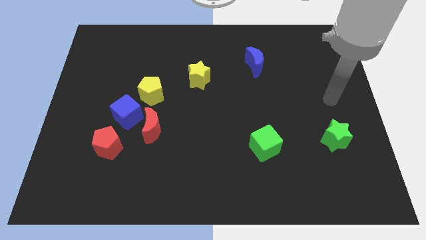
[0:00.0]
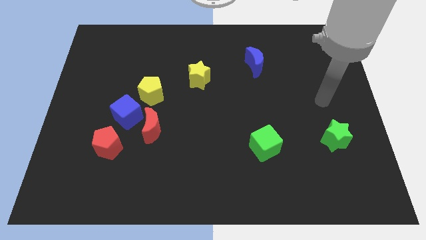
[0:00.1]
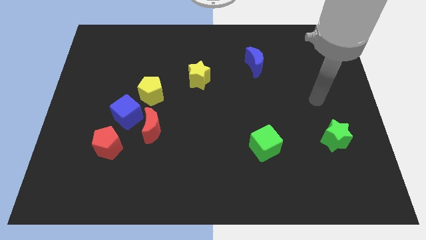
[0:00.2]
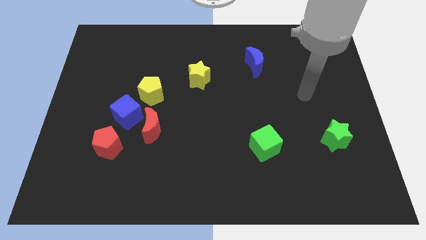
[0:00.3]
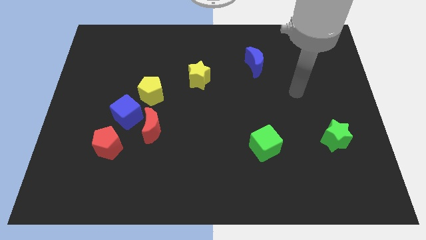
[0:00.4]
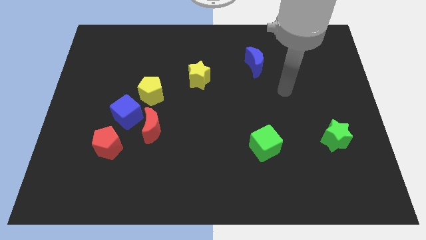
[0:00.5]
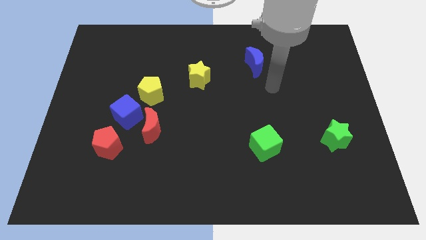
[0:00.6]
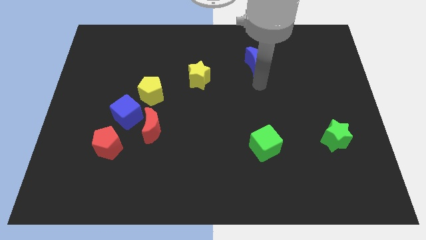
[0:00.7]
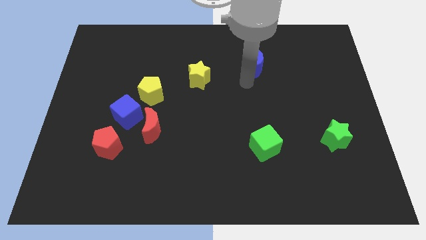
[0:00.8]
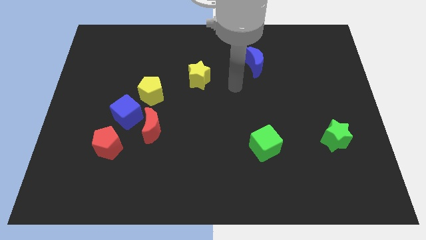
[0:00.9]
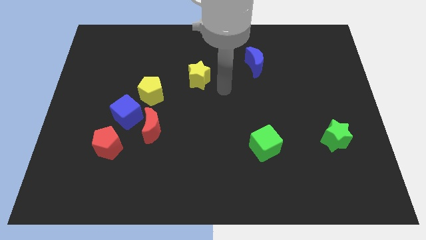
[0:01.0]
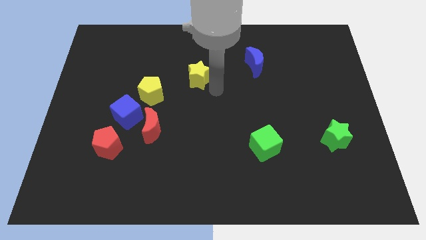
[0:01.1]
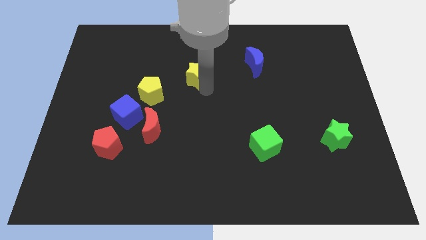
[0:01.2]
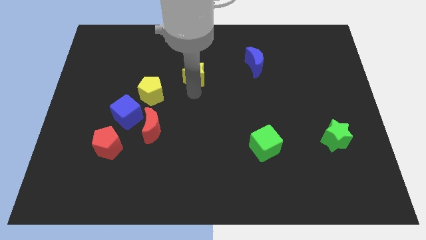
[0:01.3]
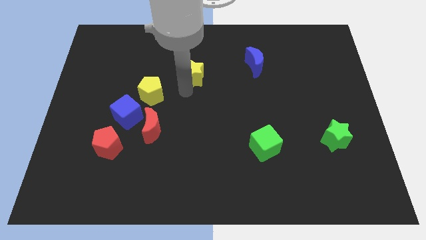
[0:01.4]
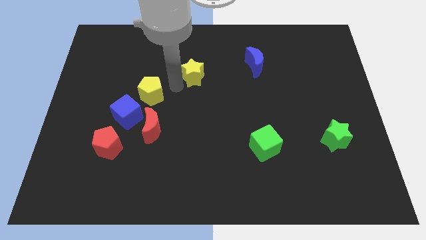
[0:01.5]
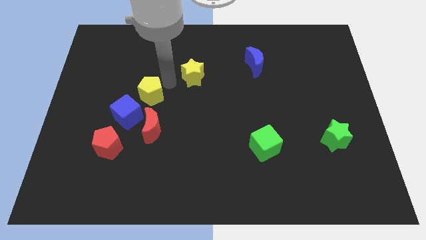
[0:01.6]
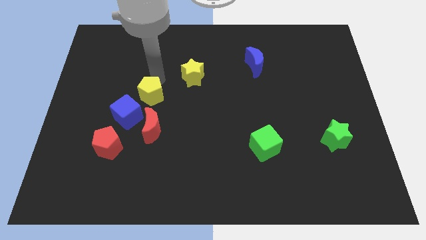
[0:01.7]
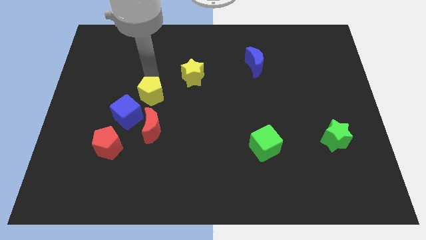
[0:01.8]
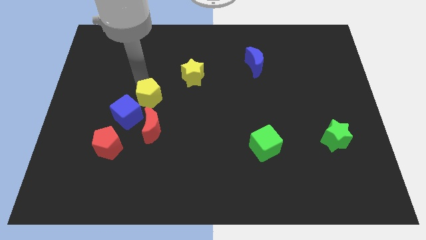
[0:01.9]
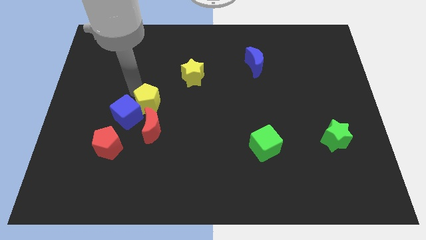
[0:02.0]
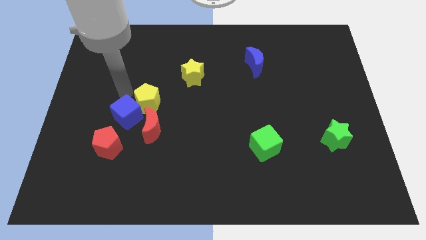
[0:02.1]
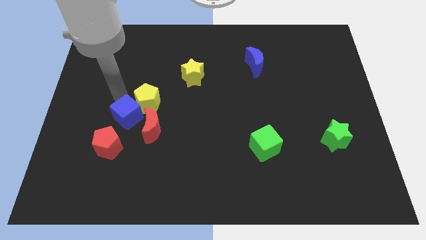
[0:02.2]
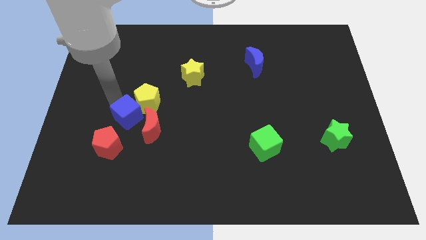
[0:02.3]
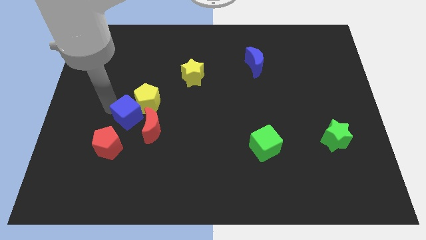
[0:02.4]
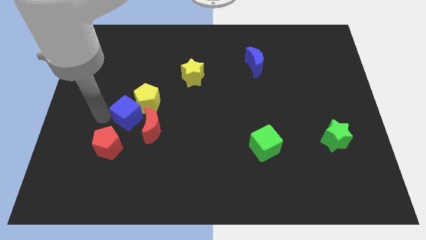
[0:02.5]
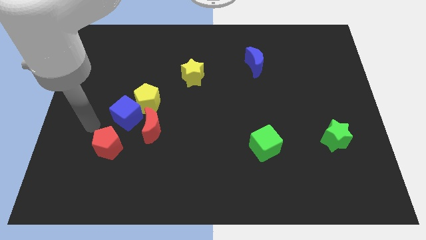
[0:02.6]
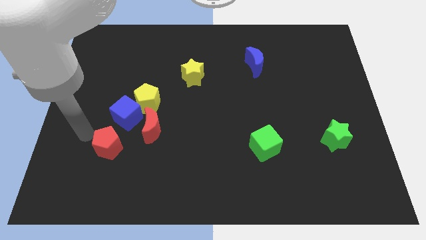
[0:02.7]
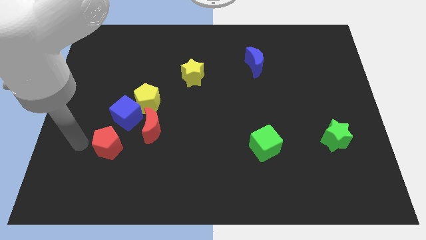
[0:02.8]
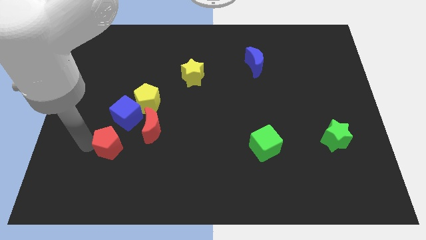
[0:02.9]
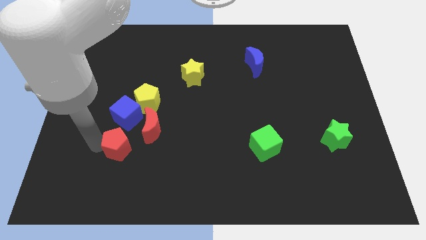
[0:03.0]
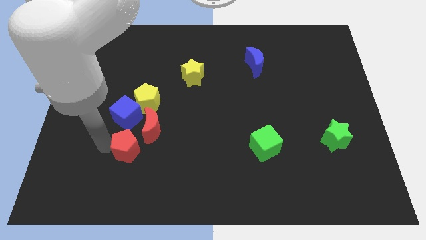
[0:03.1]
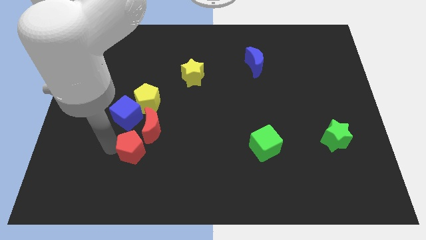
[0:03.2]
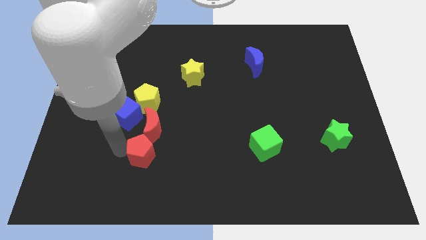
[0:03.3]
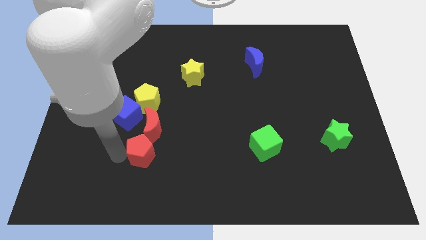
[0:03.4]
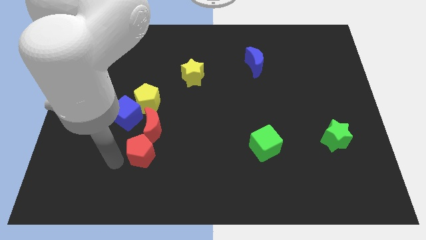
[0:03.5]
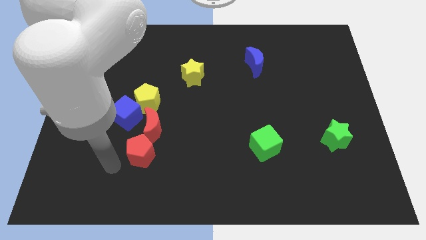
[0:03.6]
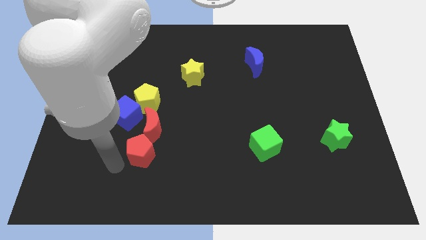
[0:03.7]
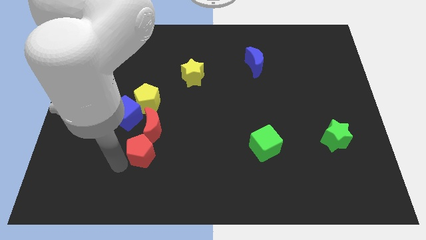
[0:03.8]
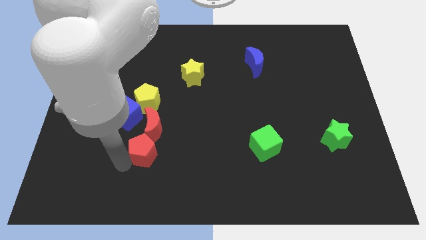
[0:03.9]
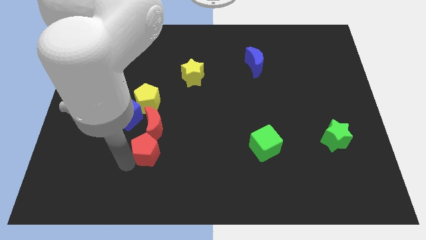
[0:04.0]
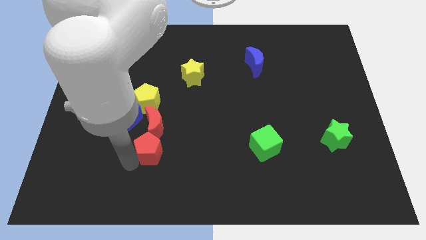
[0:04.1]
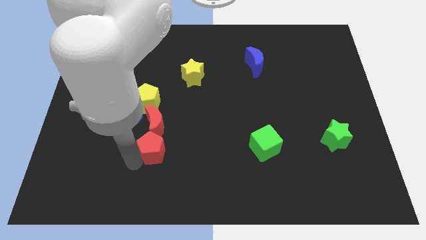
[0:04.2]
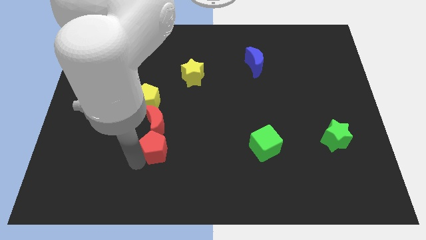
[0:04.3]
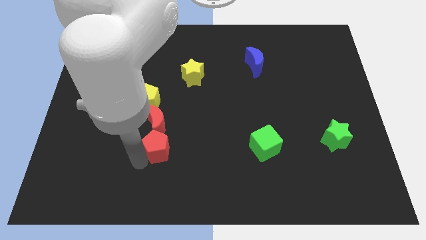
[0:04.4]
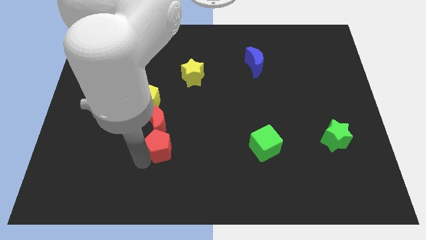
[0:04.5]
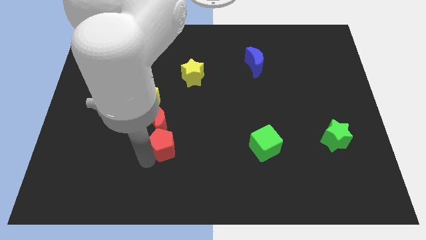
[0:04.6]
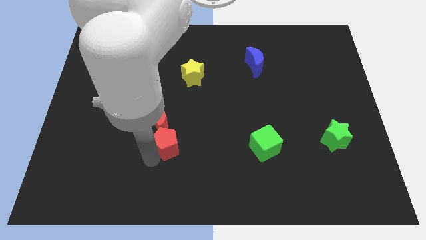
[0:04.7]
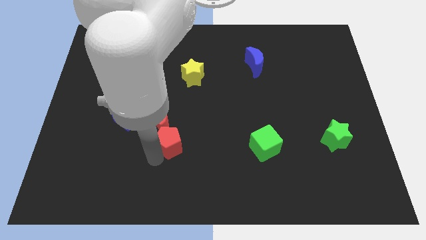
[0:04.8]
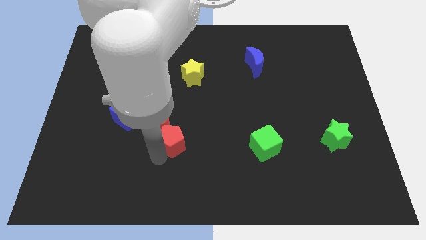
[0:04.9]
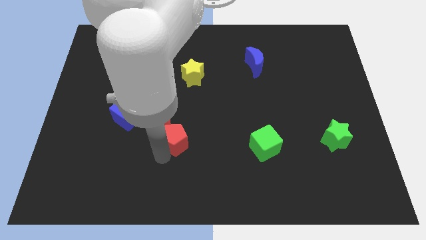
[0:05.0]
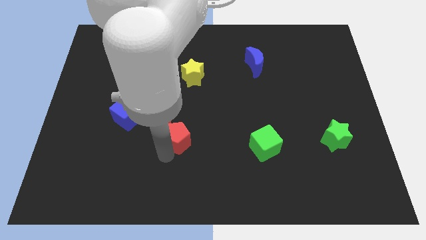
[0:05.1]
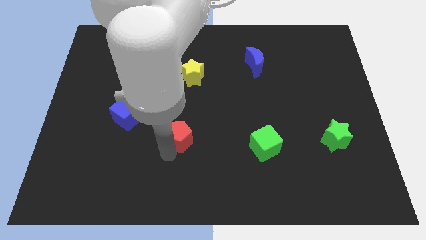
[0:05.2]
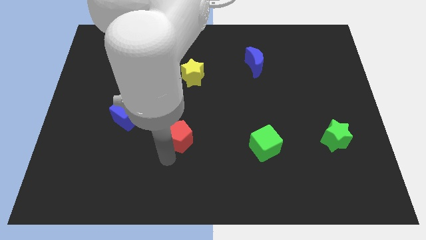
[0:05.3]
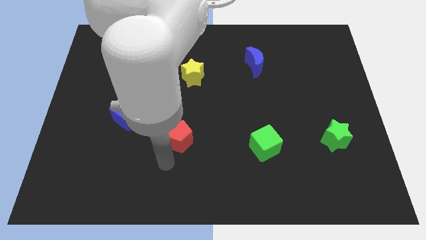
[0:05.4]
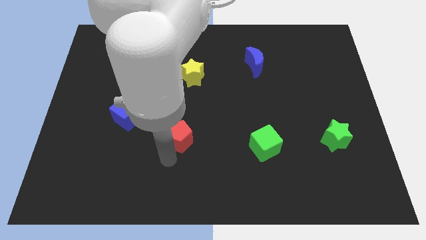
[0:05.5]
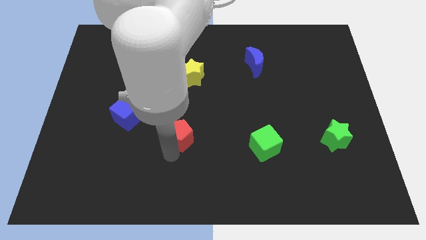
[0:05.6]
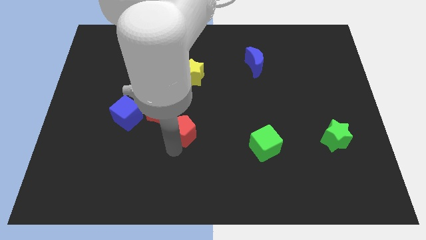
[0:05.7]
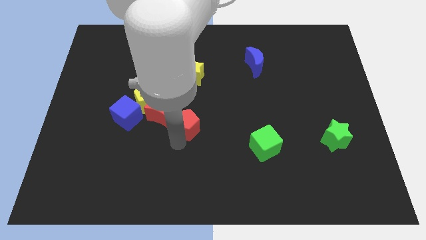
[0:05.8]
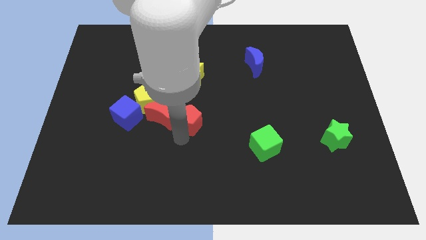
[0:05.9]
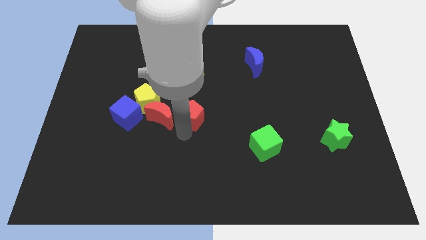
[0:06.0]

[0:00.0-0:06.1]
move the red pentagon just right of the yellow pentagon

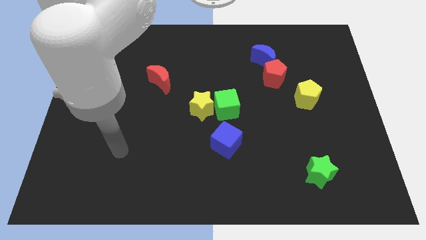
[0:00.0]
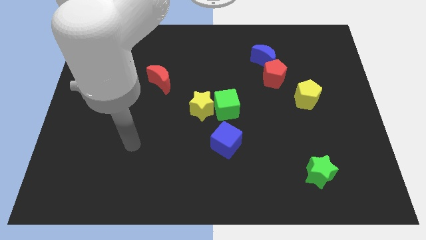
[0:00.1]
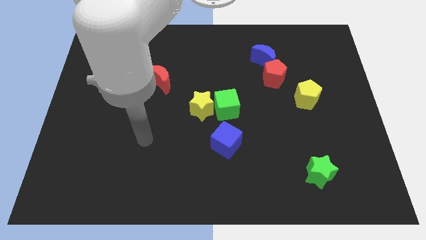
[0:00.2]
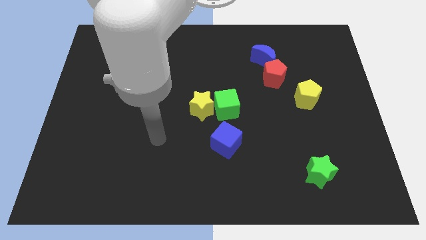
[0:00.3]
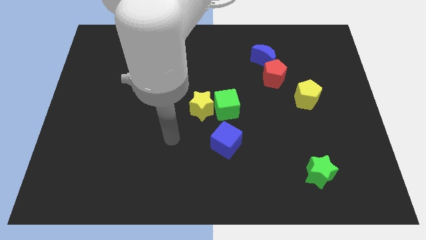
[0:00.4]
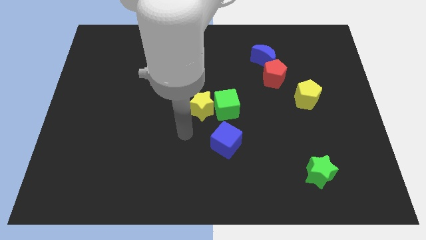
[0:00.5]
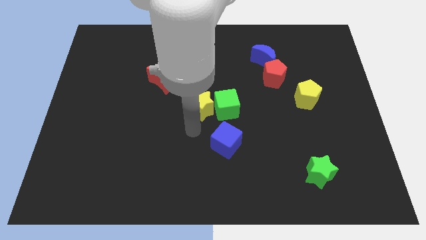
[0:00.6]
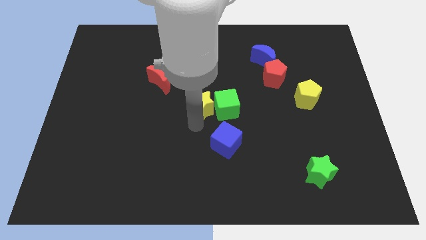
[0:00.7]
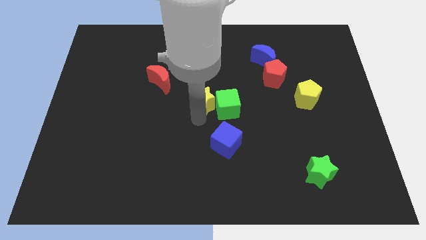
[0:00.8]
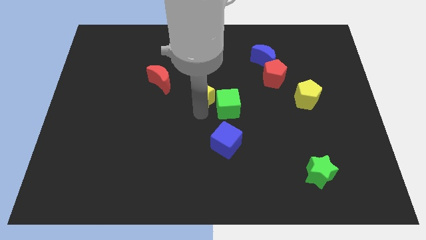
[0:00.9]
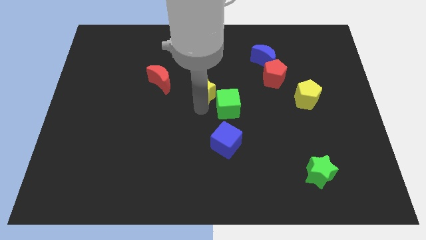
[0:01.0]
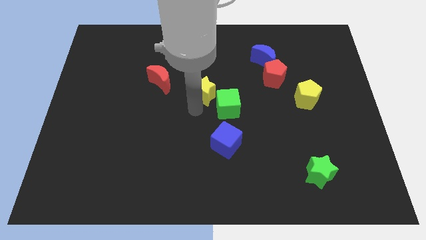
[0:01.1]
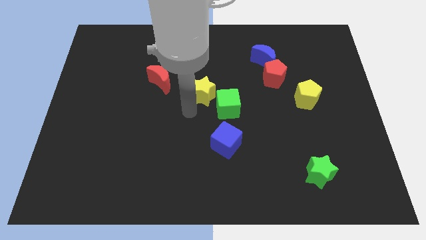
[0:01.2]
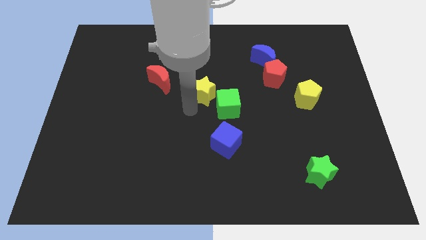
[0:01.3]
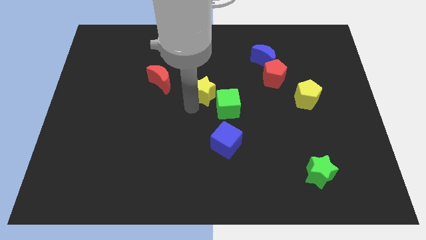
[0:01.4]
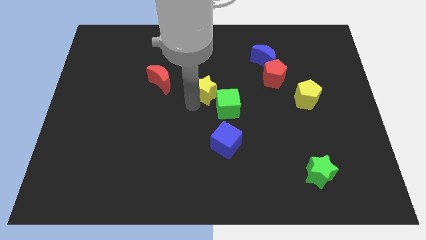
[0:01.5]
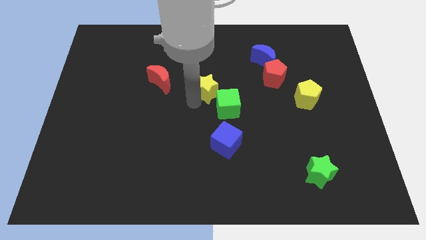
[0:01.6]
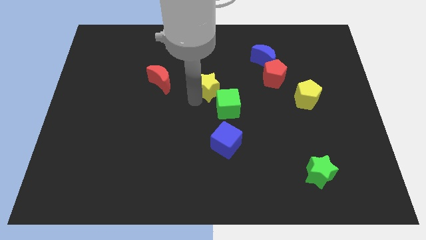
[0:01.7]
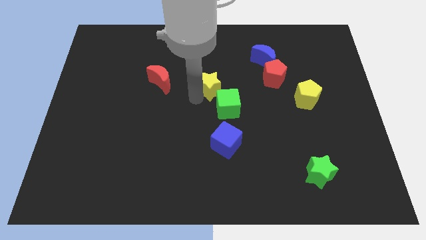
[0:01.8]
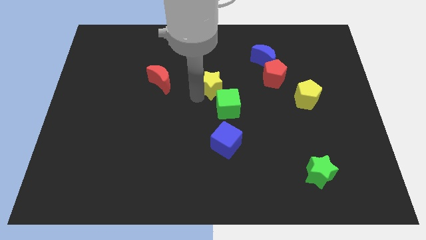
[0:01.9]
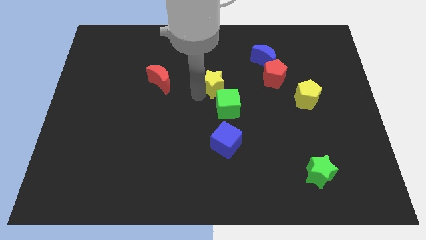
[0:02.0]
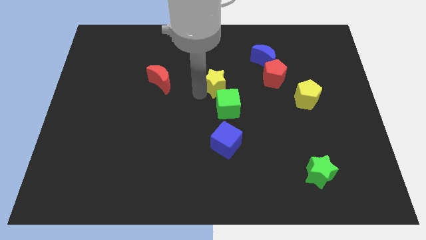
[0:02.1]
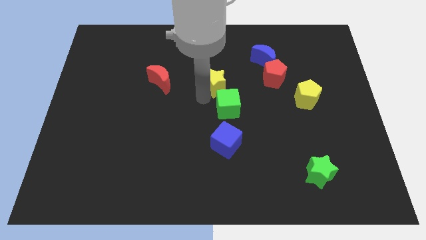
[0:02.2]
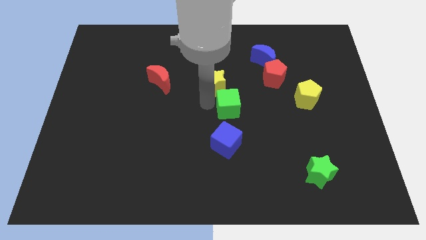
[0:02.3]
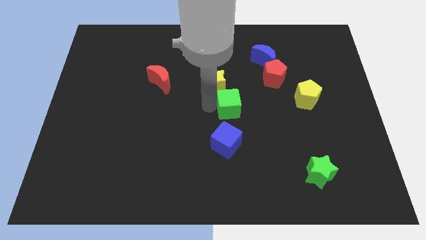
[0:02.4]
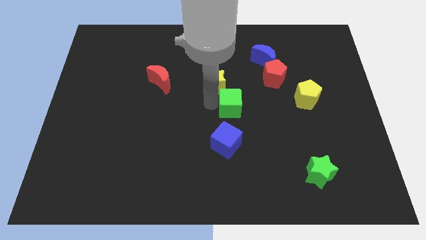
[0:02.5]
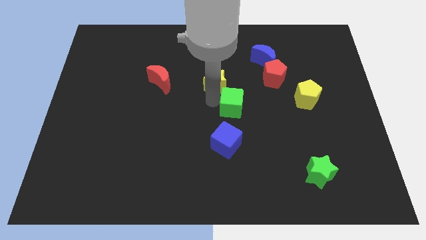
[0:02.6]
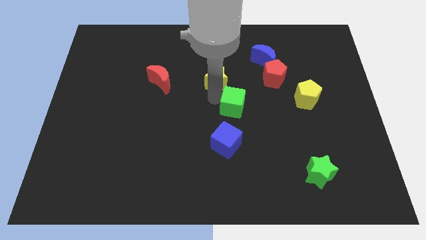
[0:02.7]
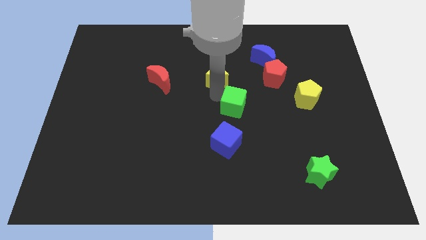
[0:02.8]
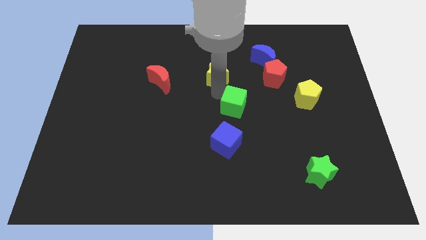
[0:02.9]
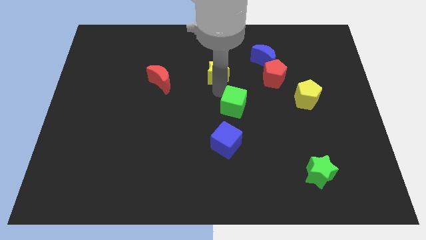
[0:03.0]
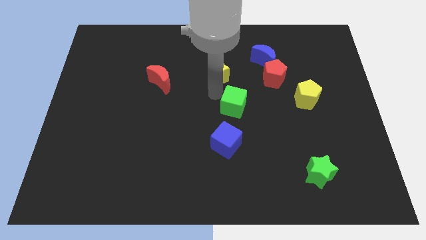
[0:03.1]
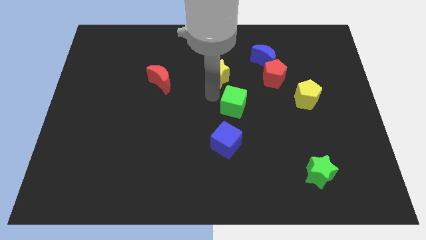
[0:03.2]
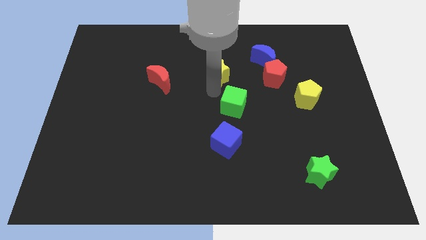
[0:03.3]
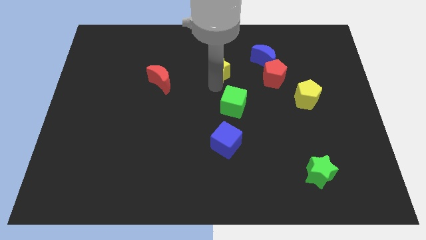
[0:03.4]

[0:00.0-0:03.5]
slide the yellow star to the left side of the blue moon
